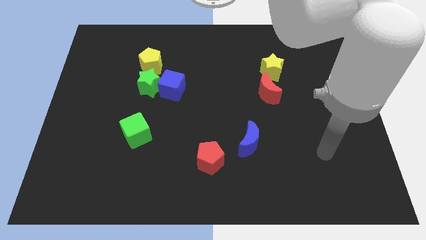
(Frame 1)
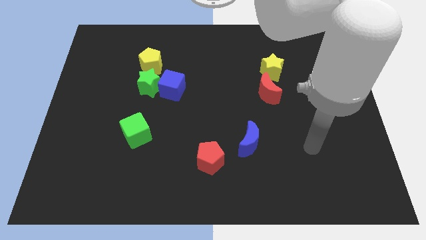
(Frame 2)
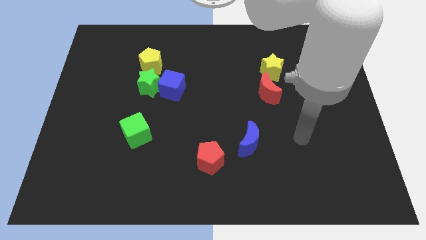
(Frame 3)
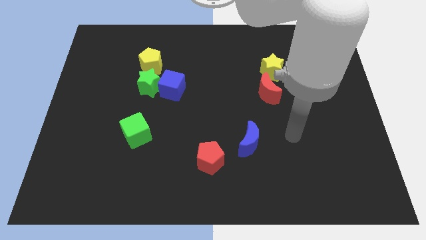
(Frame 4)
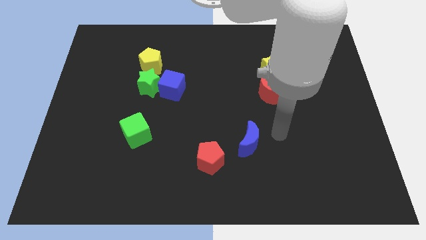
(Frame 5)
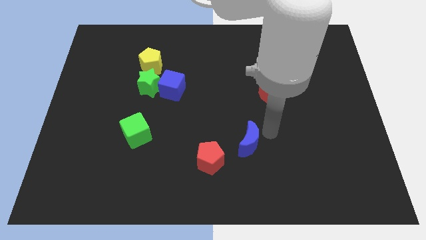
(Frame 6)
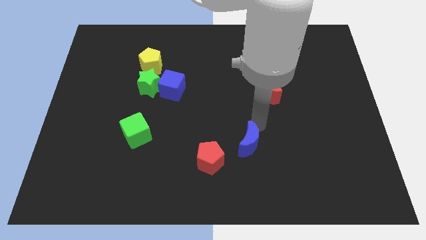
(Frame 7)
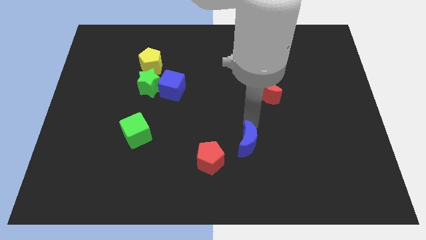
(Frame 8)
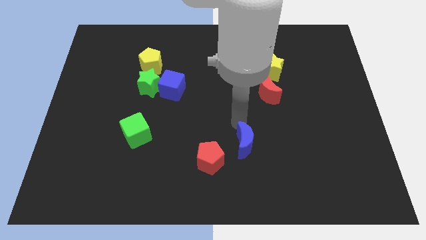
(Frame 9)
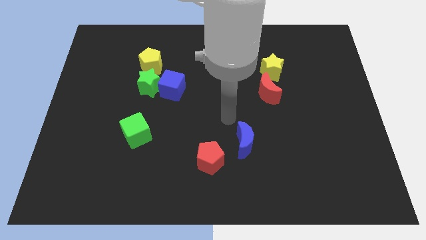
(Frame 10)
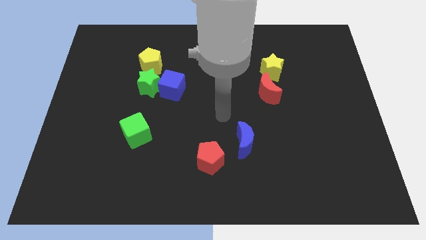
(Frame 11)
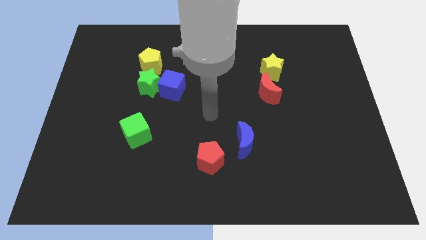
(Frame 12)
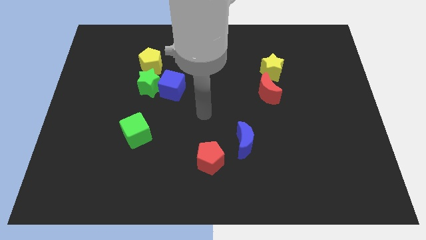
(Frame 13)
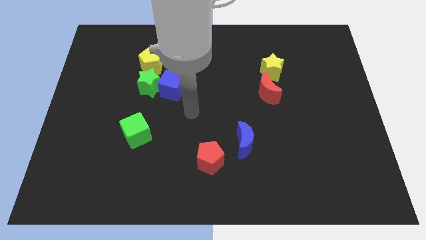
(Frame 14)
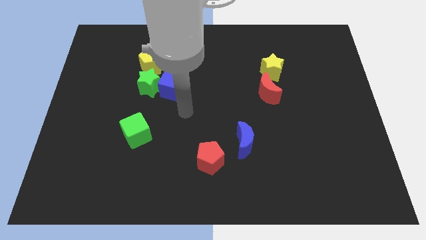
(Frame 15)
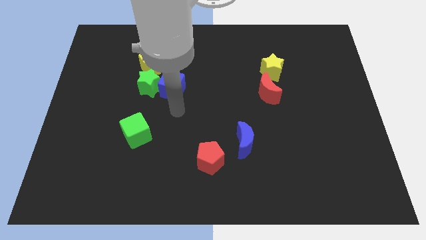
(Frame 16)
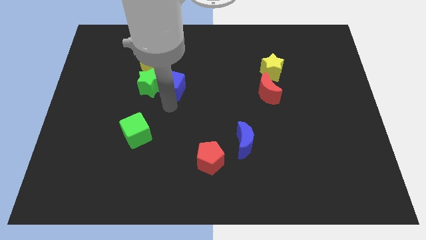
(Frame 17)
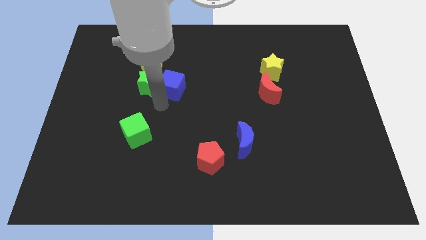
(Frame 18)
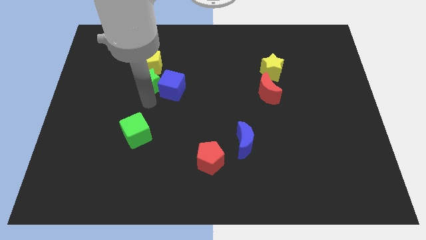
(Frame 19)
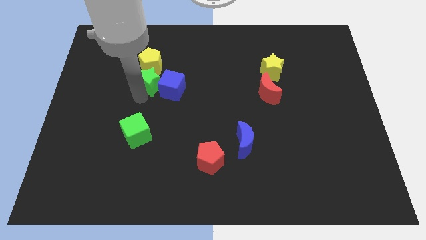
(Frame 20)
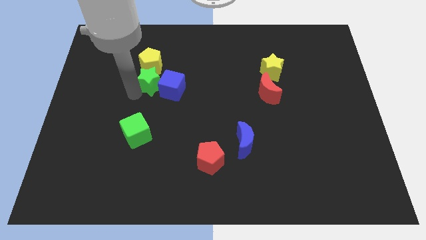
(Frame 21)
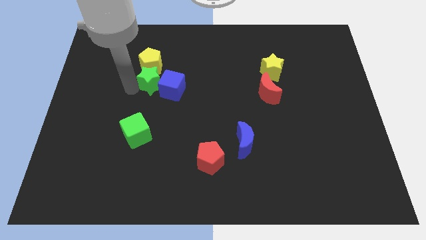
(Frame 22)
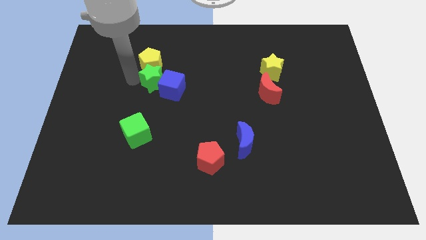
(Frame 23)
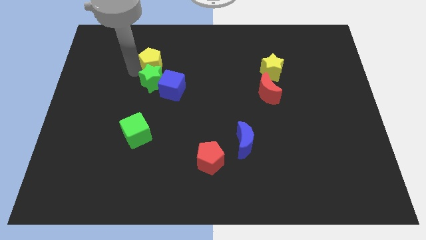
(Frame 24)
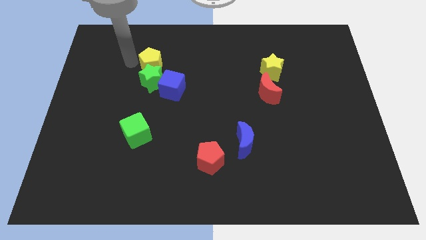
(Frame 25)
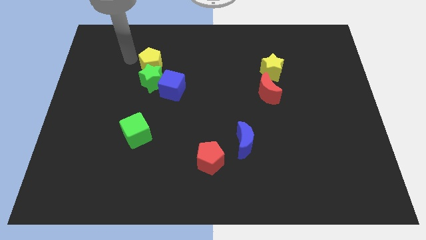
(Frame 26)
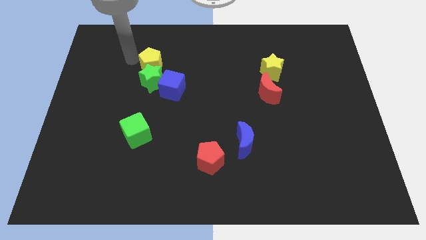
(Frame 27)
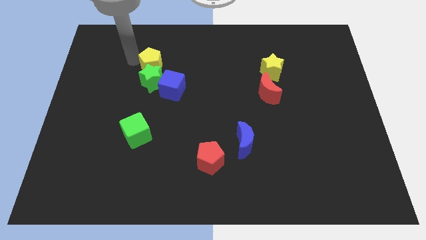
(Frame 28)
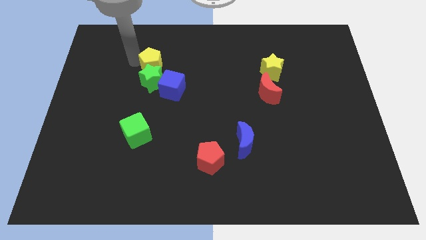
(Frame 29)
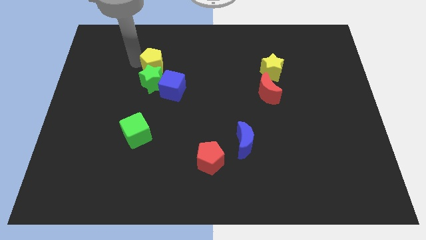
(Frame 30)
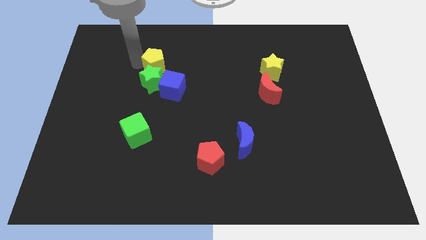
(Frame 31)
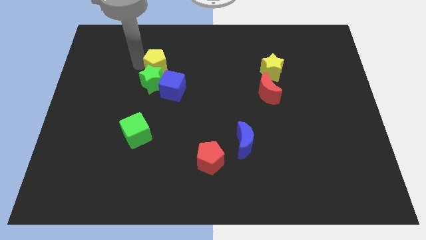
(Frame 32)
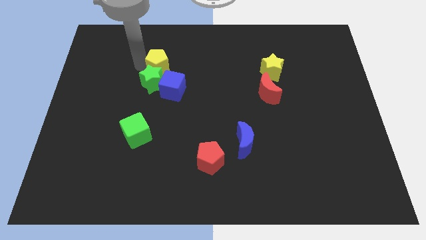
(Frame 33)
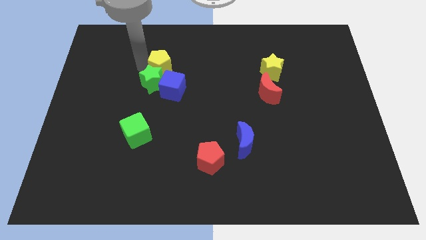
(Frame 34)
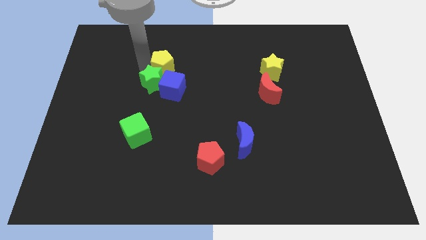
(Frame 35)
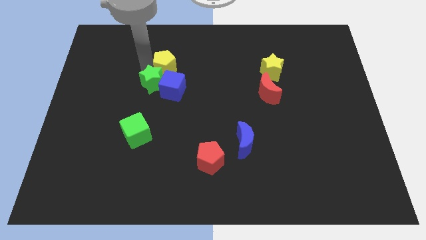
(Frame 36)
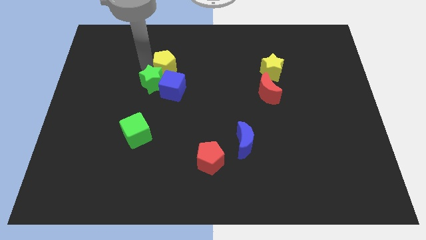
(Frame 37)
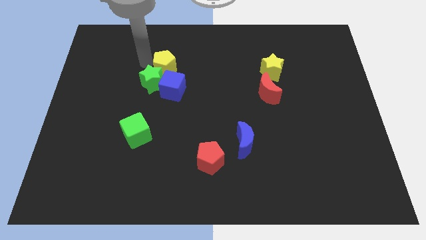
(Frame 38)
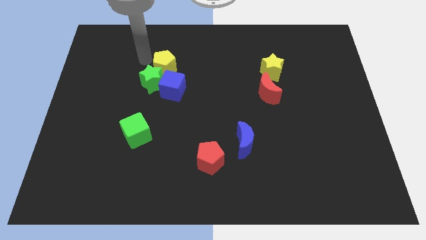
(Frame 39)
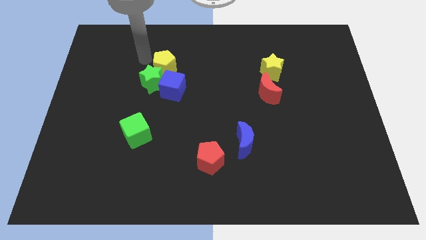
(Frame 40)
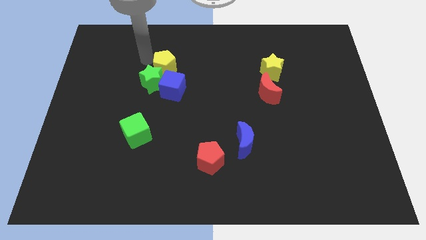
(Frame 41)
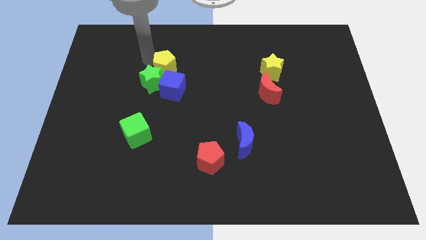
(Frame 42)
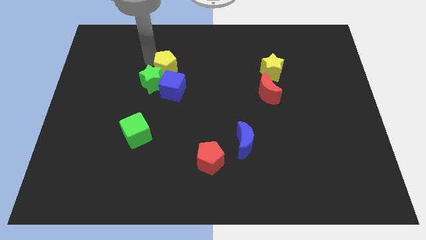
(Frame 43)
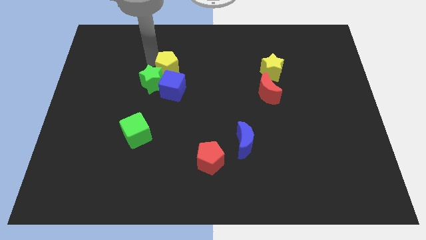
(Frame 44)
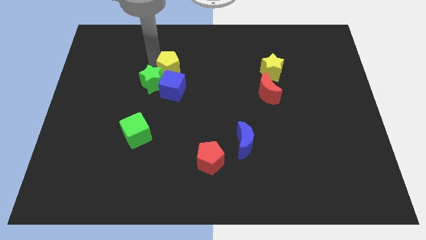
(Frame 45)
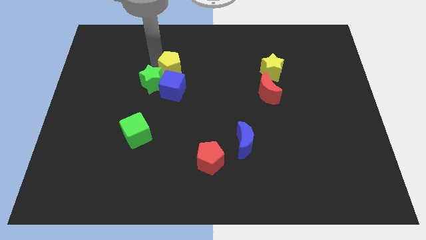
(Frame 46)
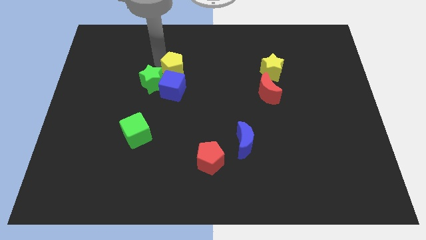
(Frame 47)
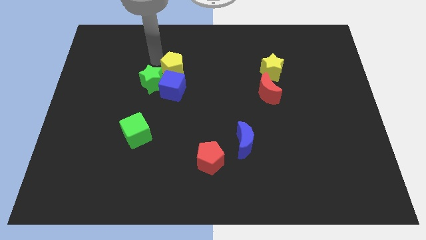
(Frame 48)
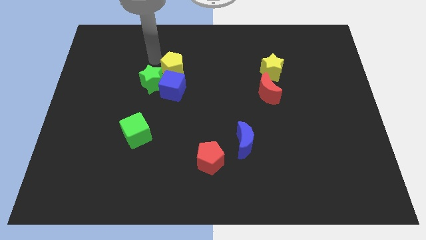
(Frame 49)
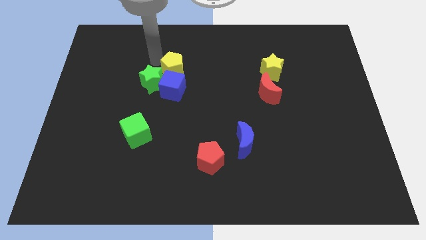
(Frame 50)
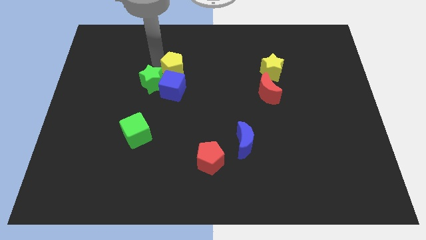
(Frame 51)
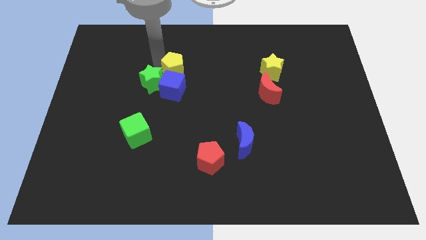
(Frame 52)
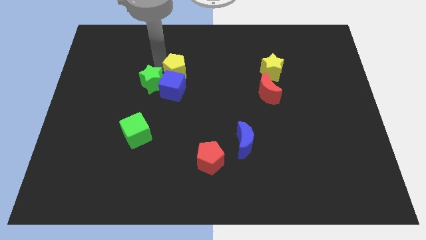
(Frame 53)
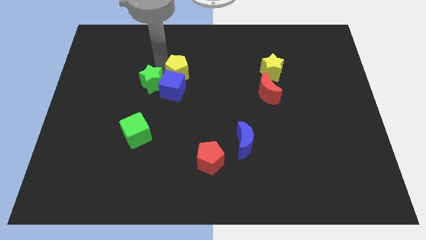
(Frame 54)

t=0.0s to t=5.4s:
slide the yellow pentagon to the middle of the board

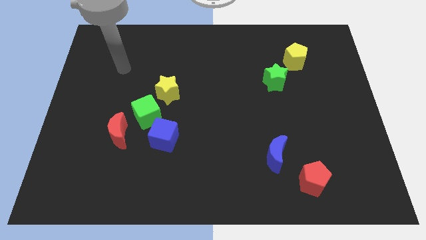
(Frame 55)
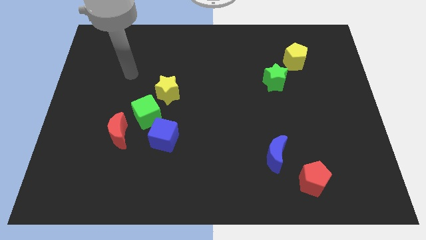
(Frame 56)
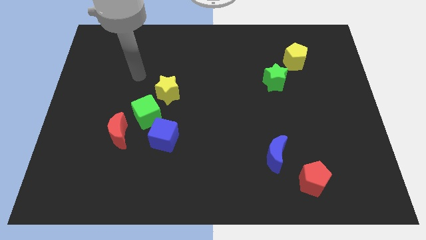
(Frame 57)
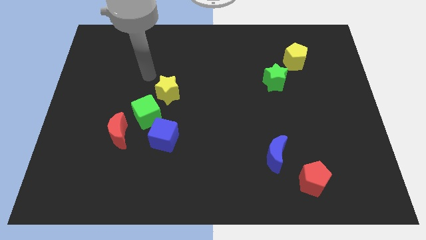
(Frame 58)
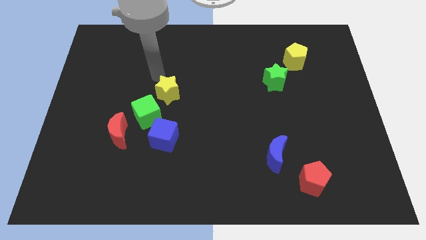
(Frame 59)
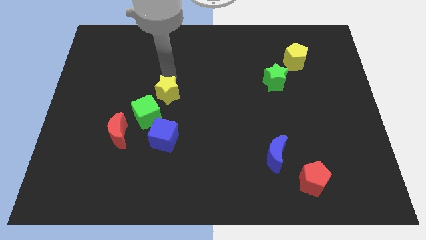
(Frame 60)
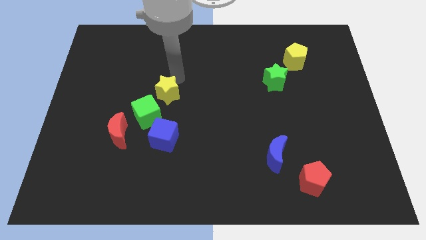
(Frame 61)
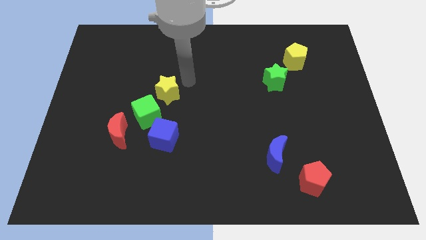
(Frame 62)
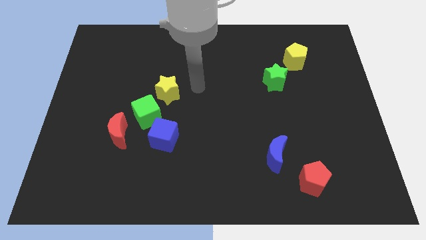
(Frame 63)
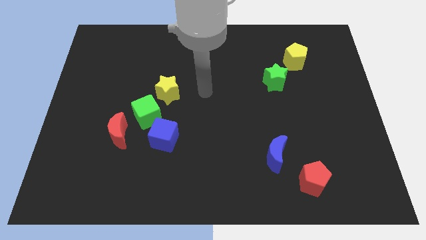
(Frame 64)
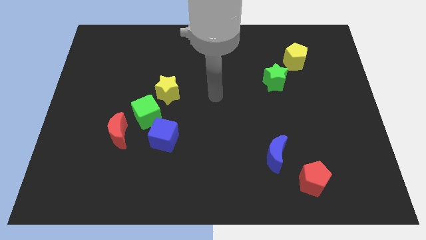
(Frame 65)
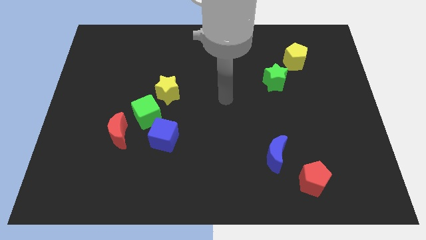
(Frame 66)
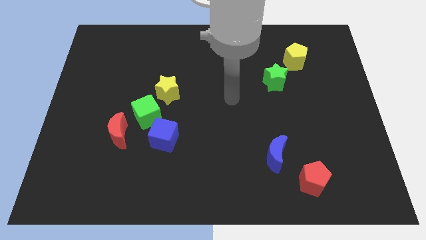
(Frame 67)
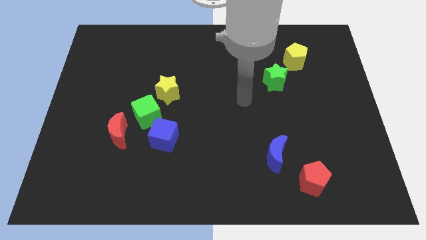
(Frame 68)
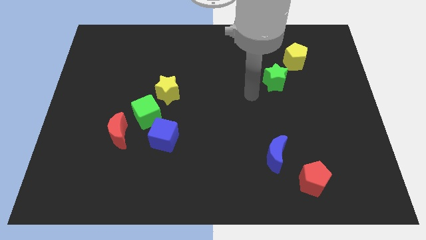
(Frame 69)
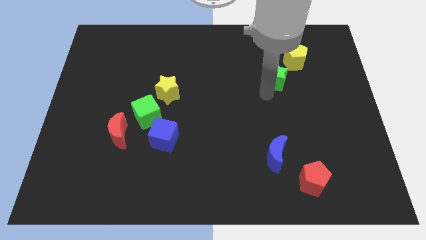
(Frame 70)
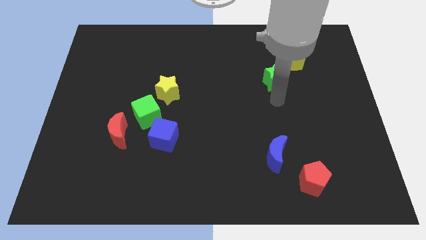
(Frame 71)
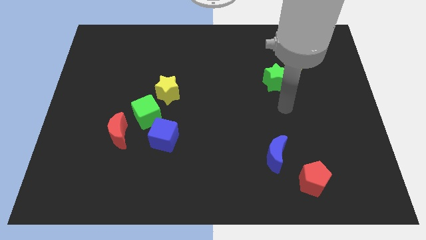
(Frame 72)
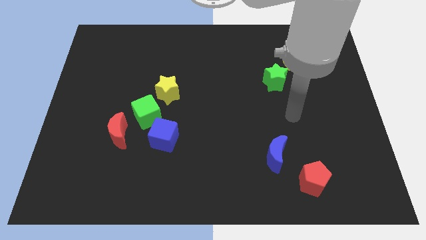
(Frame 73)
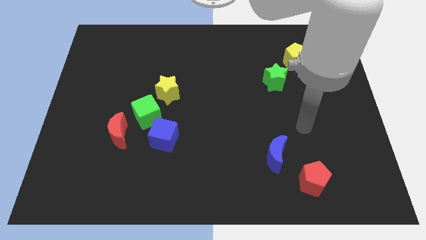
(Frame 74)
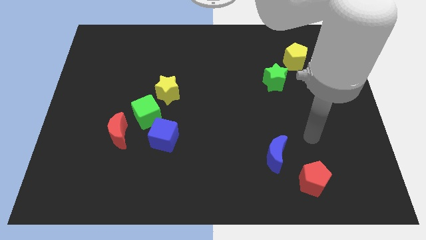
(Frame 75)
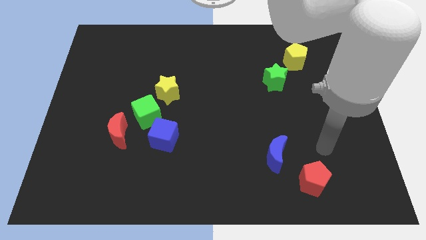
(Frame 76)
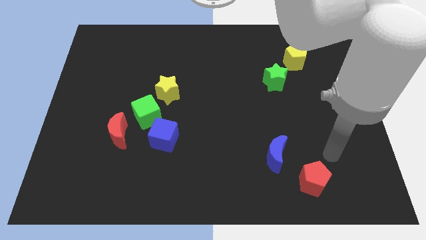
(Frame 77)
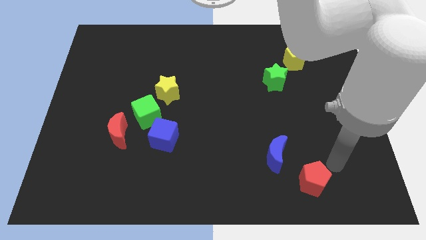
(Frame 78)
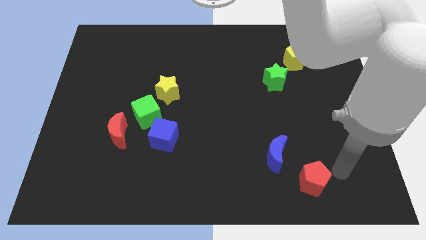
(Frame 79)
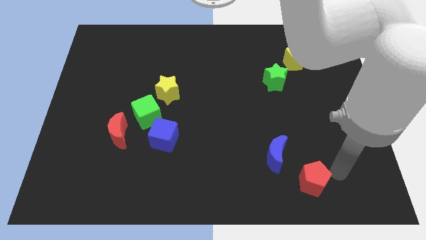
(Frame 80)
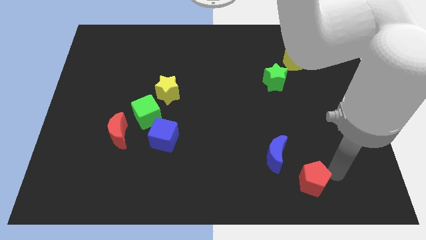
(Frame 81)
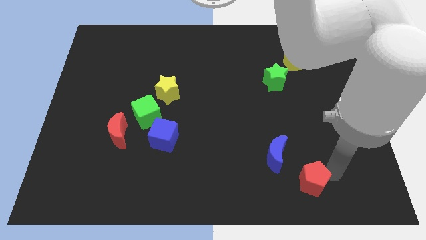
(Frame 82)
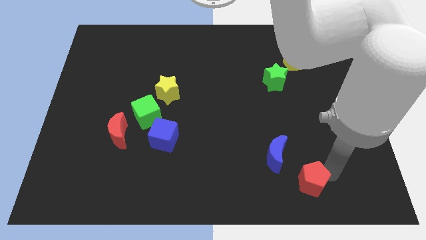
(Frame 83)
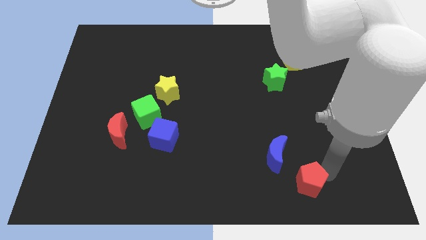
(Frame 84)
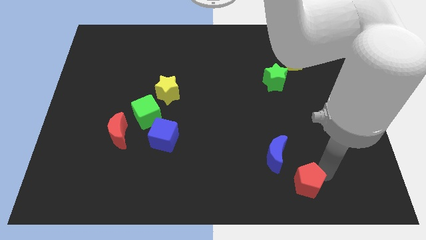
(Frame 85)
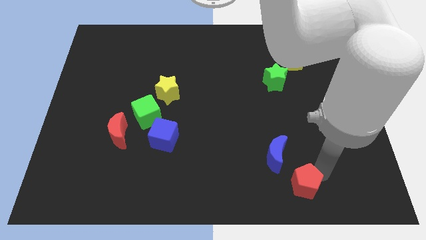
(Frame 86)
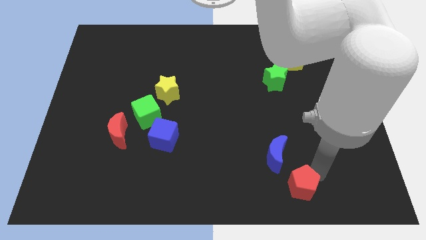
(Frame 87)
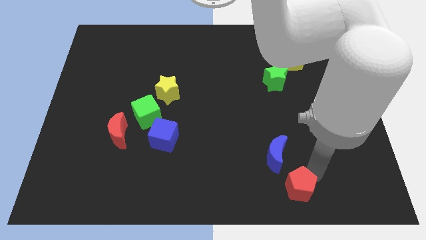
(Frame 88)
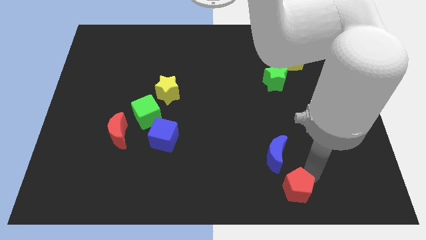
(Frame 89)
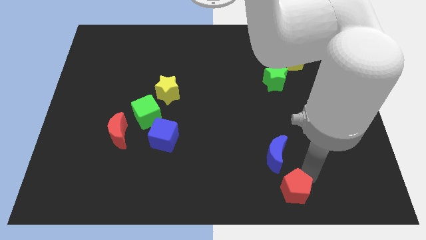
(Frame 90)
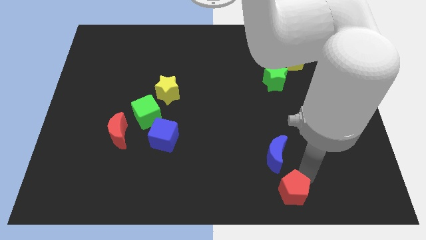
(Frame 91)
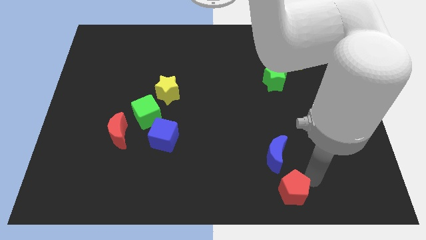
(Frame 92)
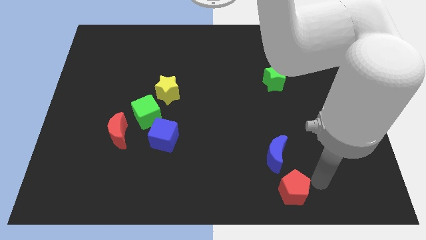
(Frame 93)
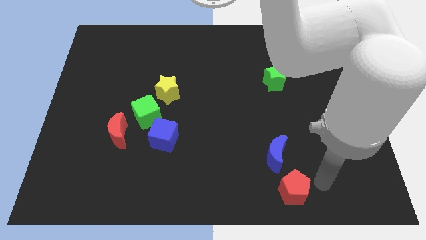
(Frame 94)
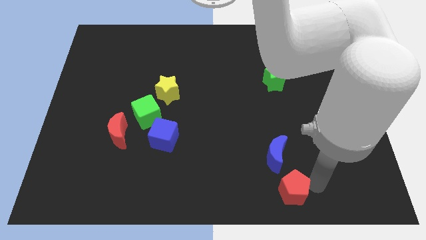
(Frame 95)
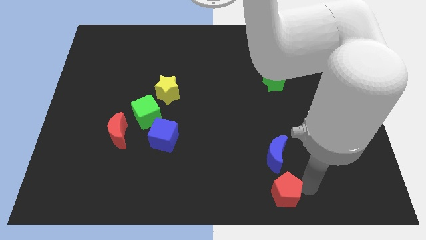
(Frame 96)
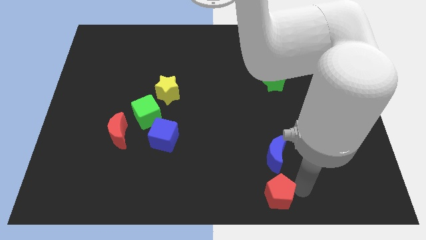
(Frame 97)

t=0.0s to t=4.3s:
push the red pentagon to the bottom side
